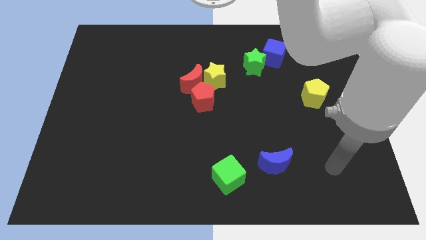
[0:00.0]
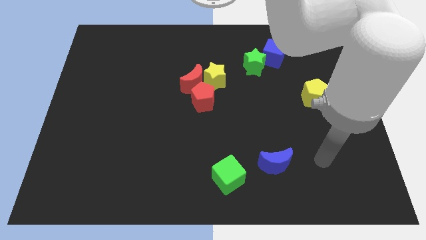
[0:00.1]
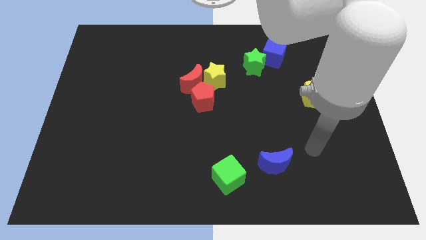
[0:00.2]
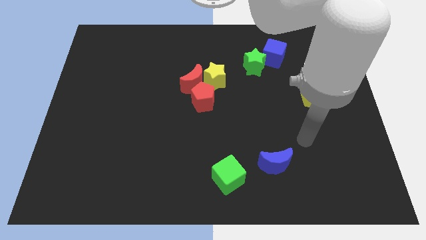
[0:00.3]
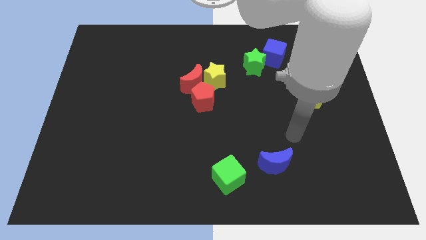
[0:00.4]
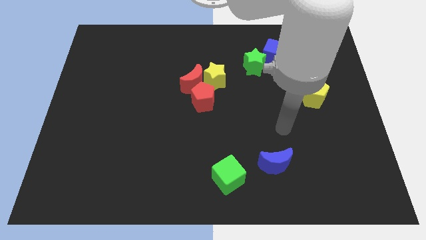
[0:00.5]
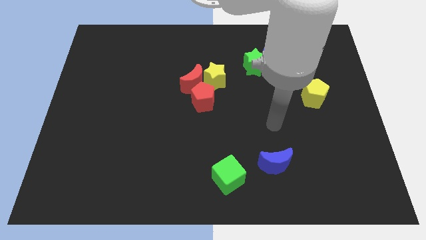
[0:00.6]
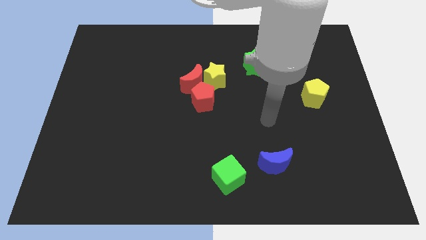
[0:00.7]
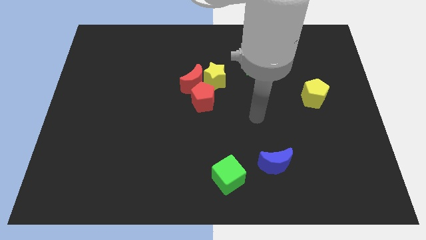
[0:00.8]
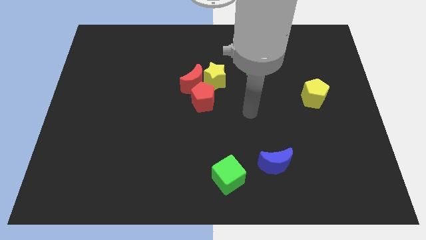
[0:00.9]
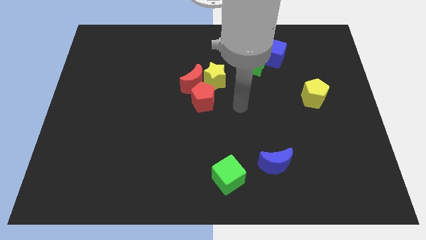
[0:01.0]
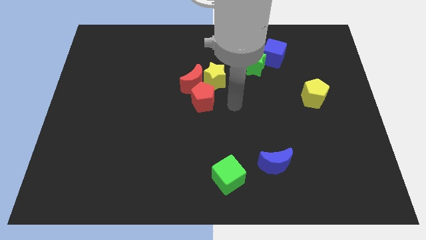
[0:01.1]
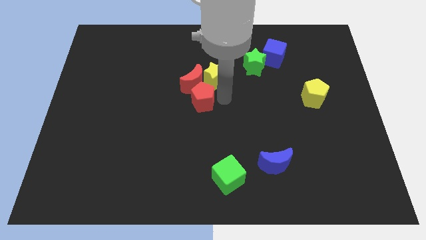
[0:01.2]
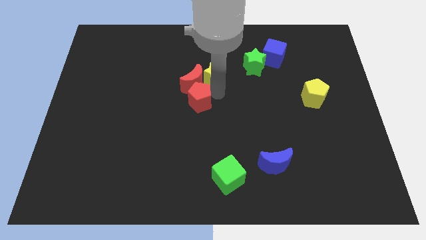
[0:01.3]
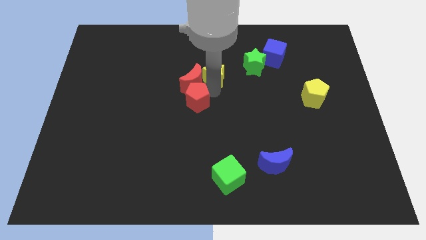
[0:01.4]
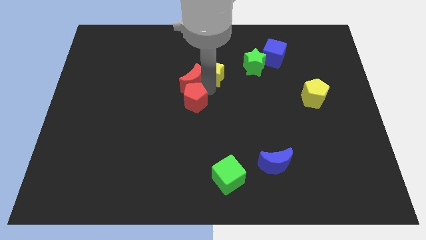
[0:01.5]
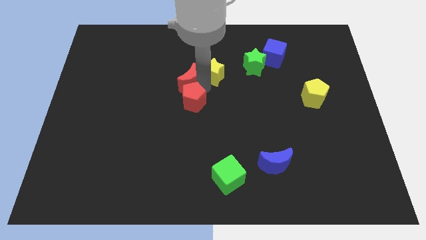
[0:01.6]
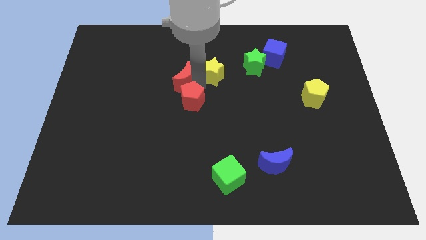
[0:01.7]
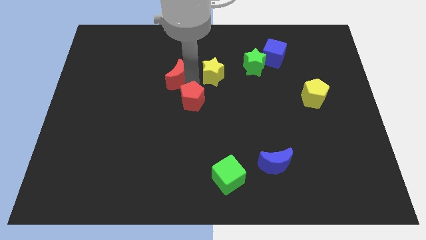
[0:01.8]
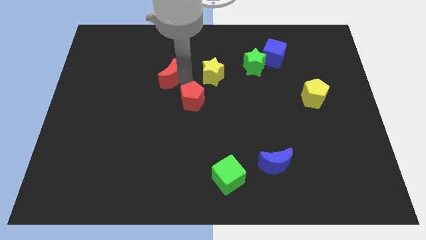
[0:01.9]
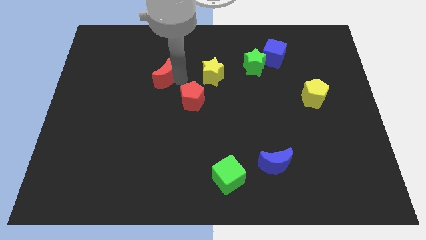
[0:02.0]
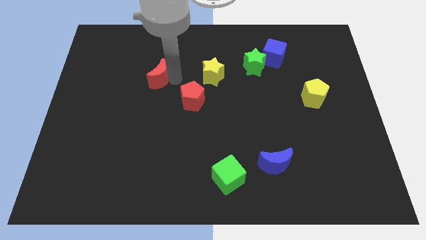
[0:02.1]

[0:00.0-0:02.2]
separate the red moon from the yellow star and red pentagon

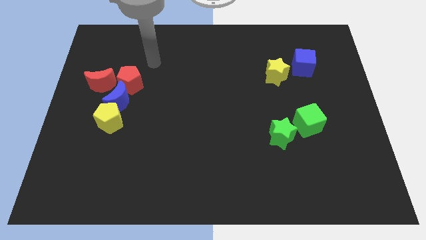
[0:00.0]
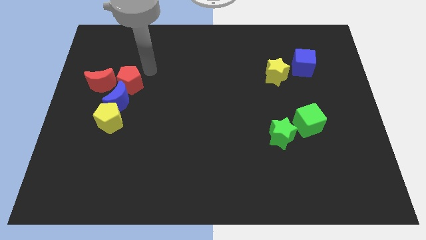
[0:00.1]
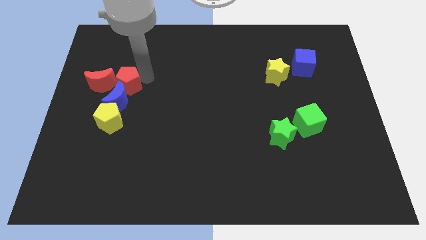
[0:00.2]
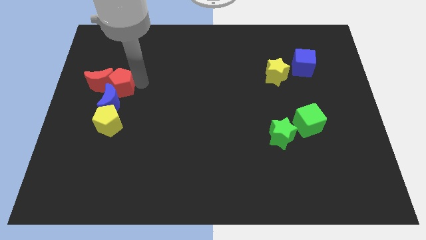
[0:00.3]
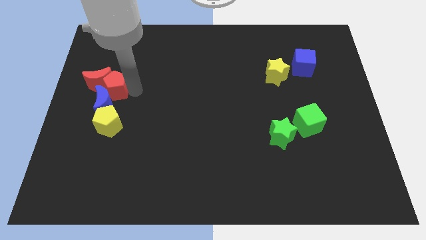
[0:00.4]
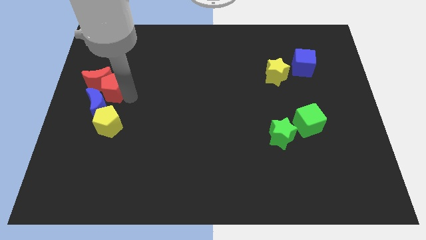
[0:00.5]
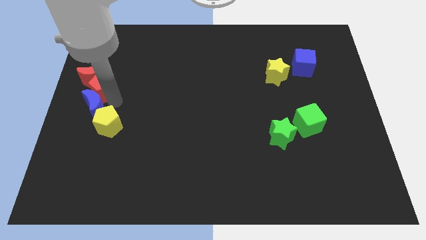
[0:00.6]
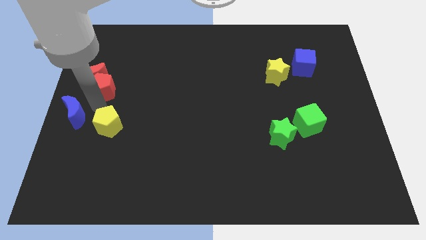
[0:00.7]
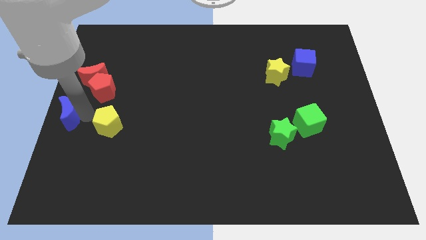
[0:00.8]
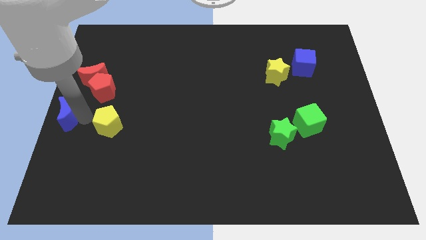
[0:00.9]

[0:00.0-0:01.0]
pull the yellow pentagon apart from the blue moon

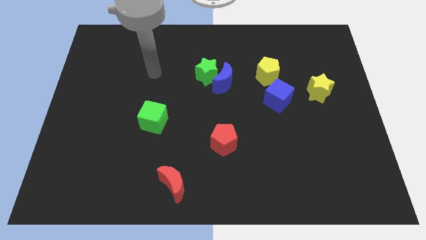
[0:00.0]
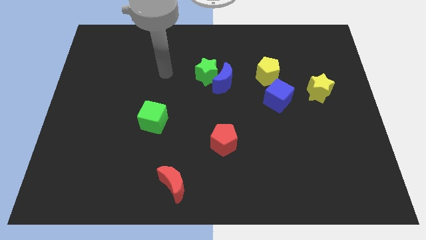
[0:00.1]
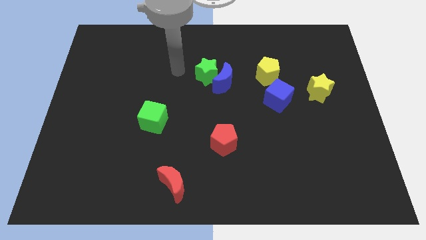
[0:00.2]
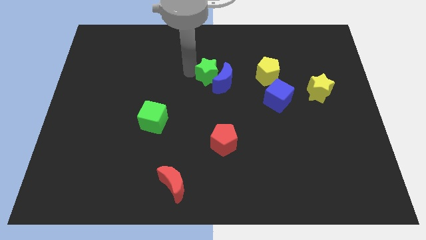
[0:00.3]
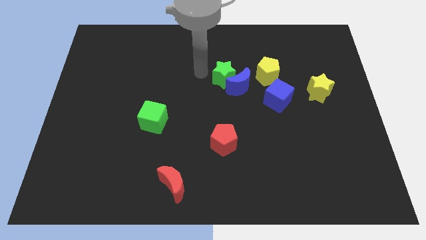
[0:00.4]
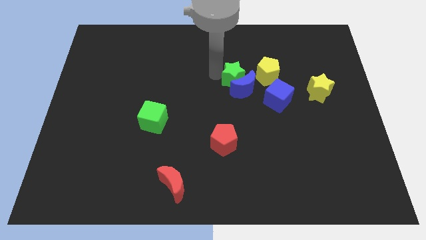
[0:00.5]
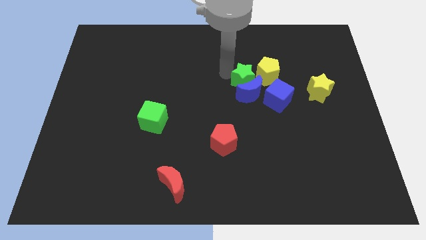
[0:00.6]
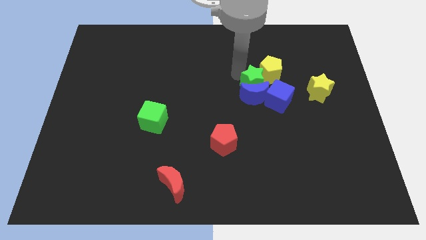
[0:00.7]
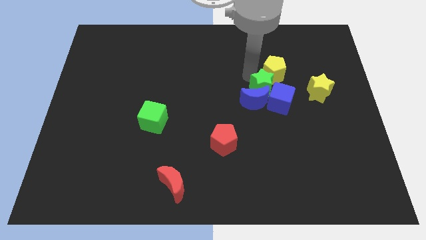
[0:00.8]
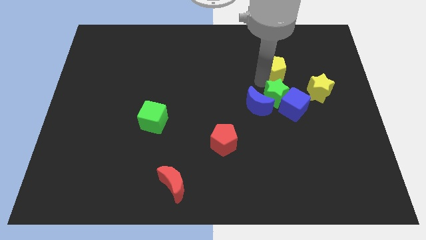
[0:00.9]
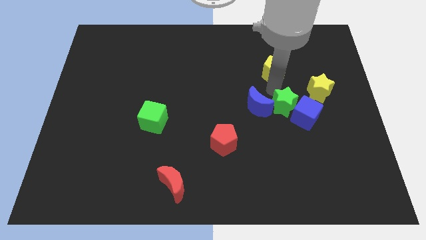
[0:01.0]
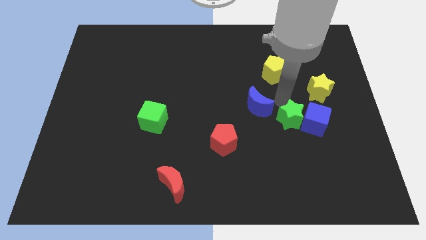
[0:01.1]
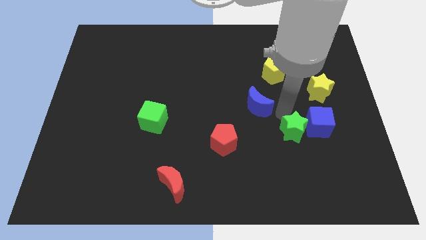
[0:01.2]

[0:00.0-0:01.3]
pull the blue moon apart from the green star

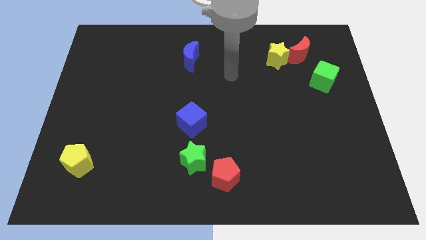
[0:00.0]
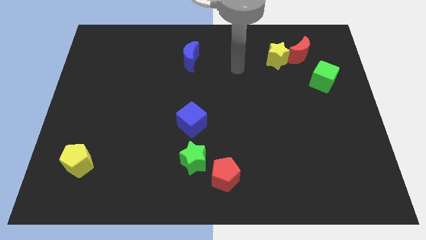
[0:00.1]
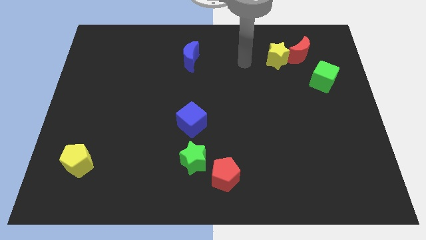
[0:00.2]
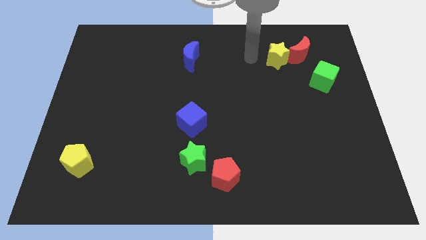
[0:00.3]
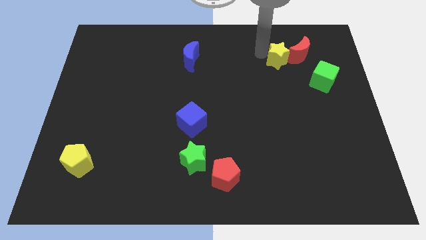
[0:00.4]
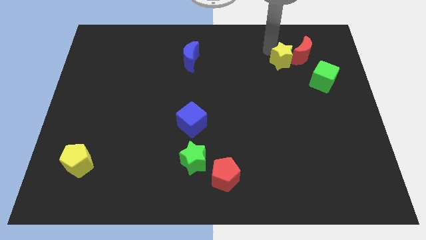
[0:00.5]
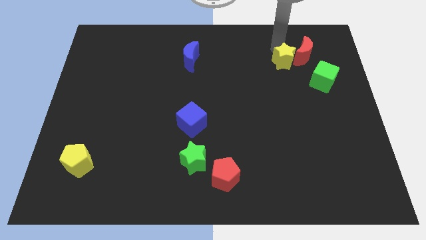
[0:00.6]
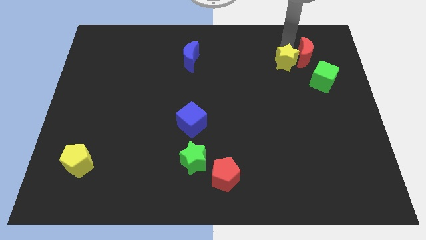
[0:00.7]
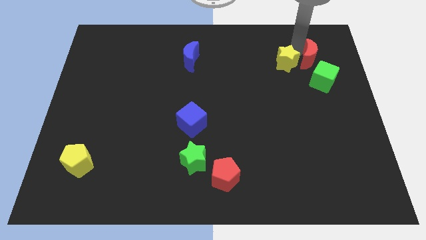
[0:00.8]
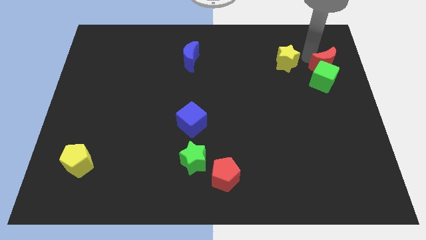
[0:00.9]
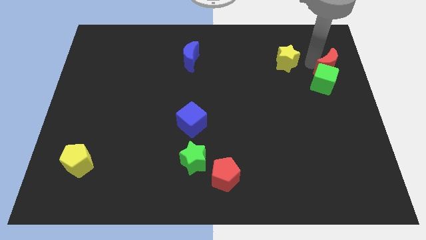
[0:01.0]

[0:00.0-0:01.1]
move the yellow star away from the red moon

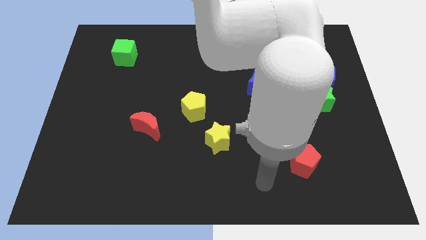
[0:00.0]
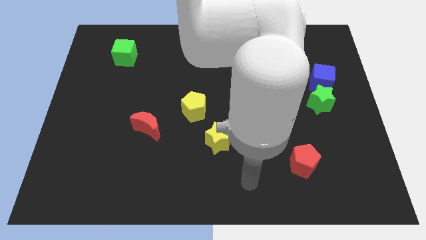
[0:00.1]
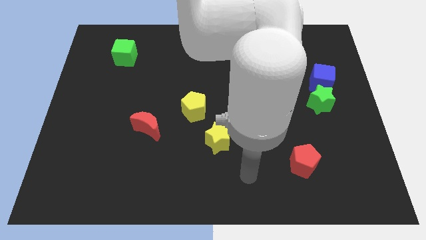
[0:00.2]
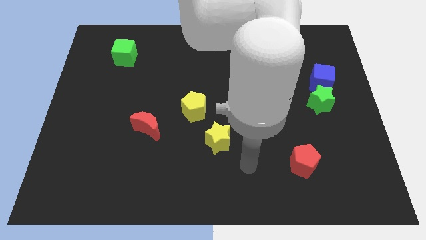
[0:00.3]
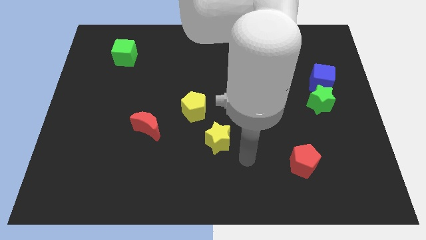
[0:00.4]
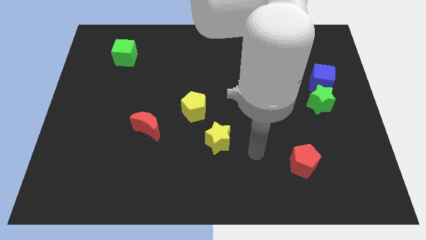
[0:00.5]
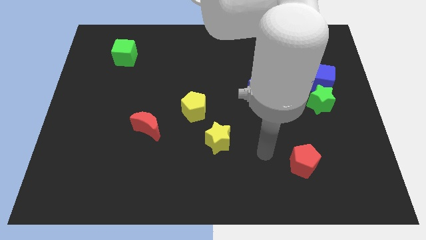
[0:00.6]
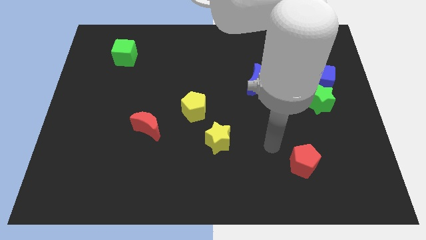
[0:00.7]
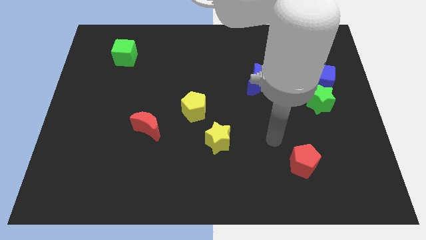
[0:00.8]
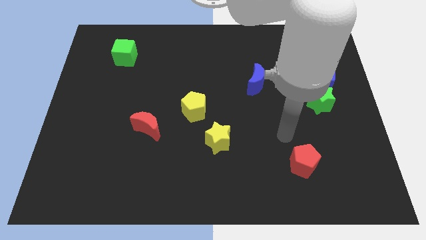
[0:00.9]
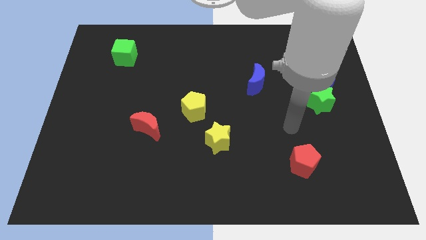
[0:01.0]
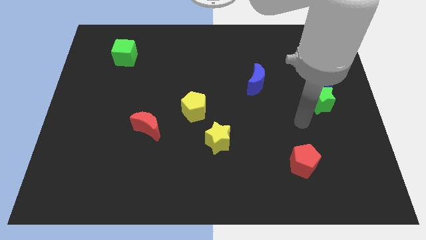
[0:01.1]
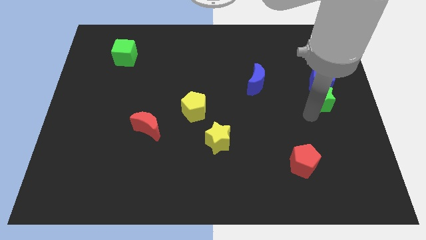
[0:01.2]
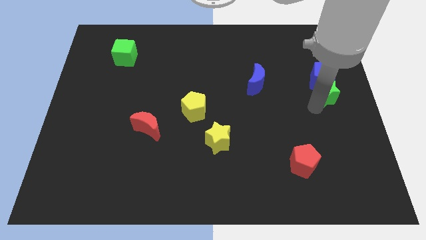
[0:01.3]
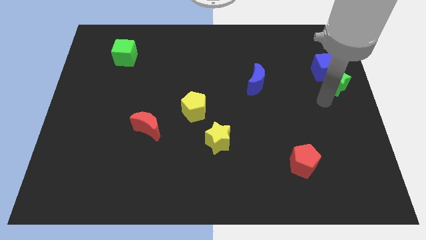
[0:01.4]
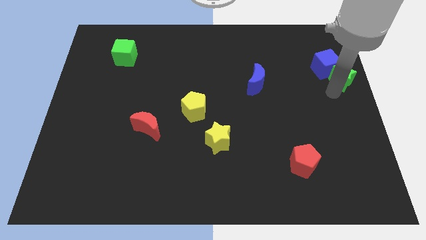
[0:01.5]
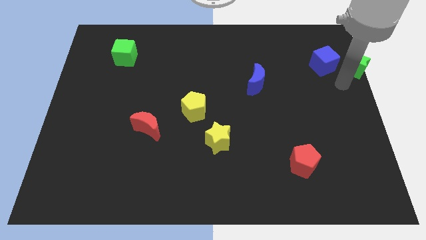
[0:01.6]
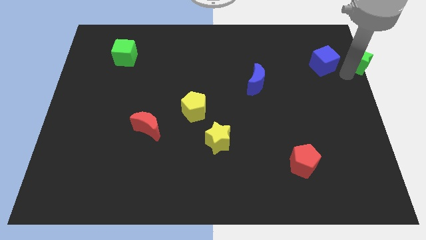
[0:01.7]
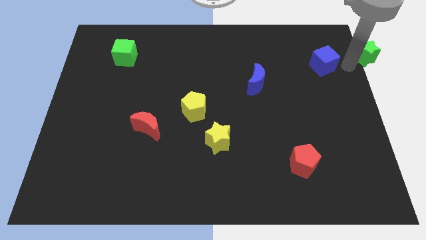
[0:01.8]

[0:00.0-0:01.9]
pull the blue cube apart from the green star

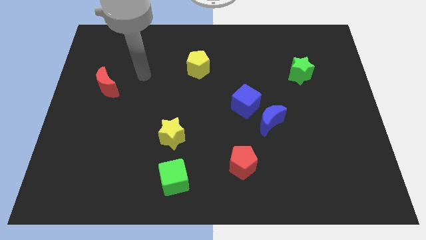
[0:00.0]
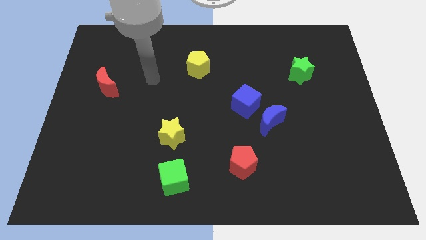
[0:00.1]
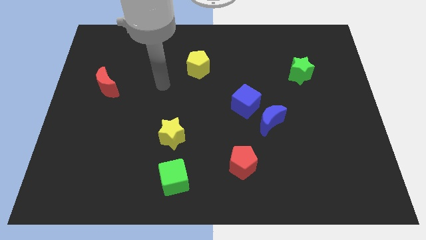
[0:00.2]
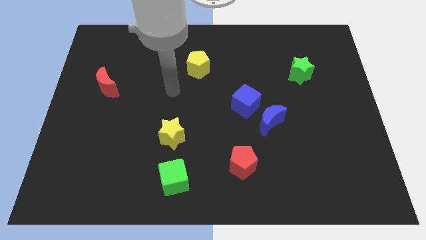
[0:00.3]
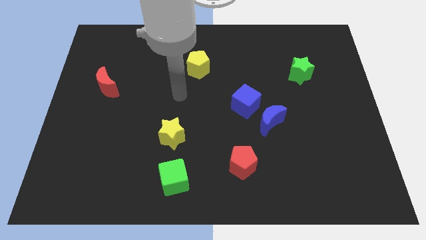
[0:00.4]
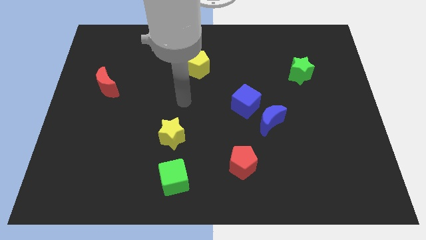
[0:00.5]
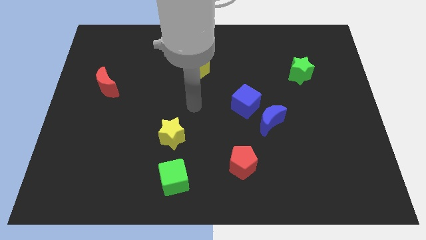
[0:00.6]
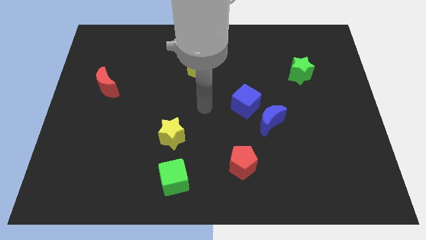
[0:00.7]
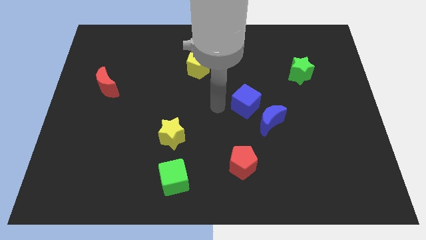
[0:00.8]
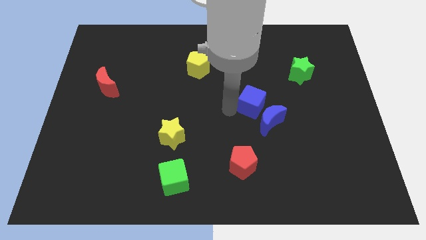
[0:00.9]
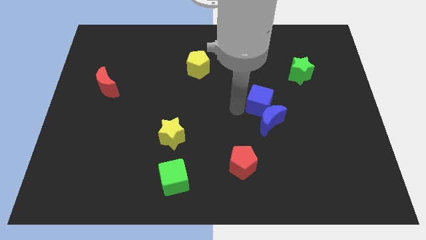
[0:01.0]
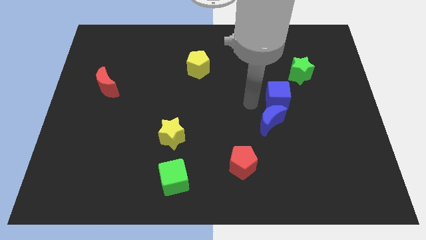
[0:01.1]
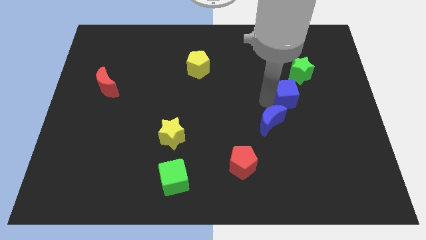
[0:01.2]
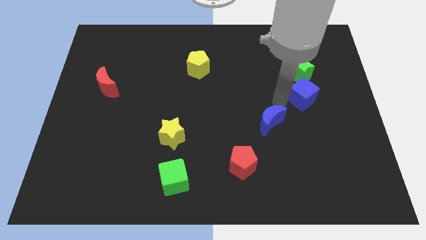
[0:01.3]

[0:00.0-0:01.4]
pull the blue moon apart from the blue cube

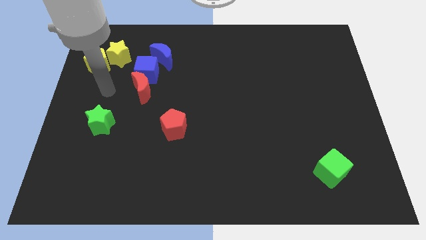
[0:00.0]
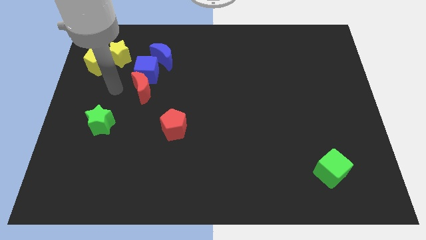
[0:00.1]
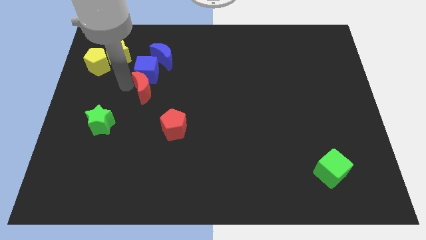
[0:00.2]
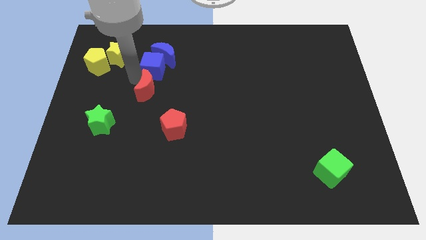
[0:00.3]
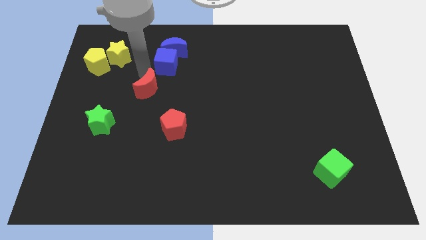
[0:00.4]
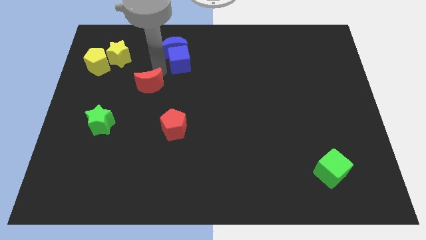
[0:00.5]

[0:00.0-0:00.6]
move the red moon away from the blue cube
